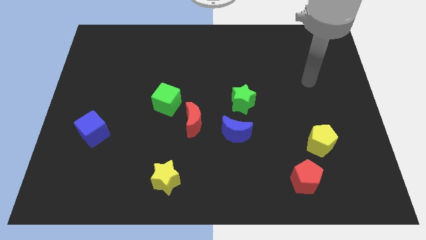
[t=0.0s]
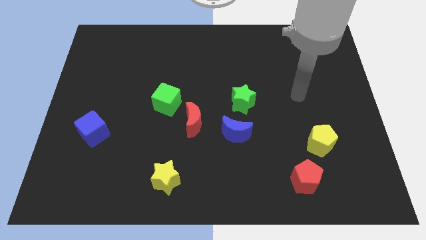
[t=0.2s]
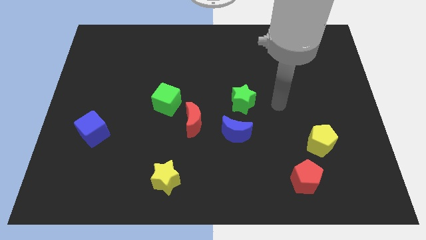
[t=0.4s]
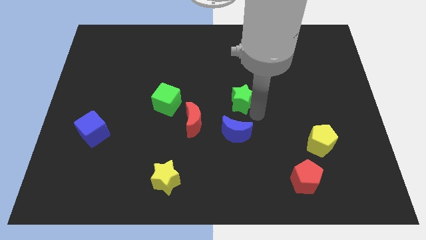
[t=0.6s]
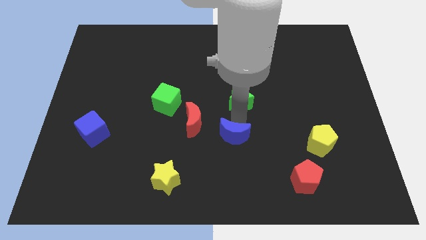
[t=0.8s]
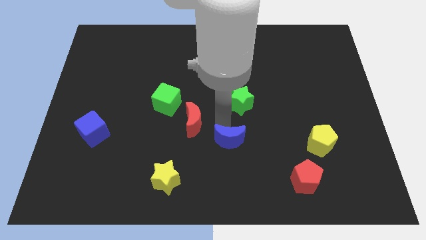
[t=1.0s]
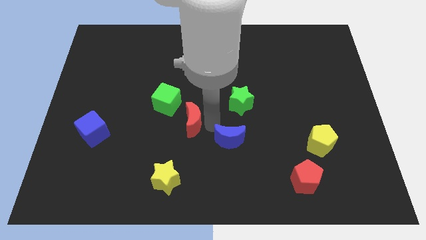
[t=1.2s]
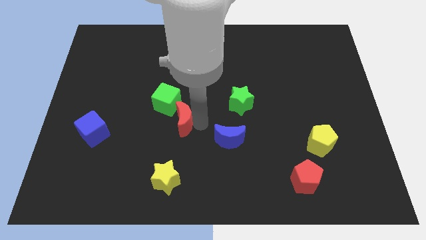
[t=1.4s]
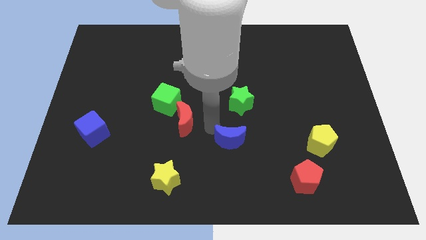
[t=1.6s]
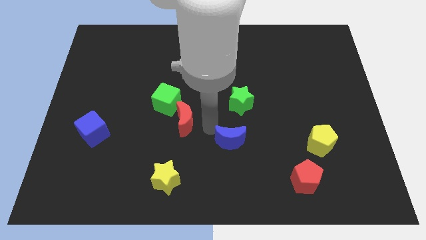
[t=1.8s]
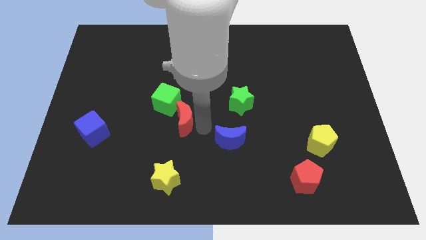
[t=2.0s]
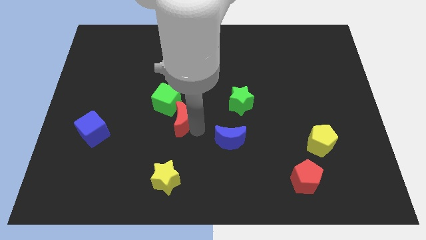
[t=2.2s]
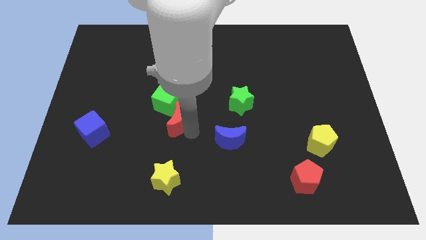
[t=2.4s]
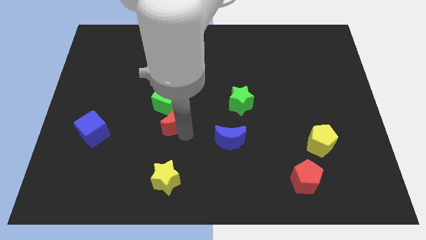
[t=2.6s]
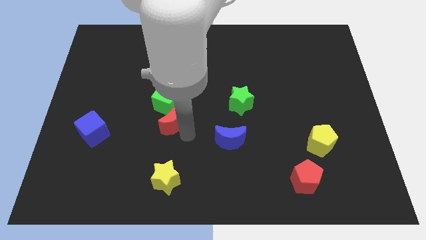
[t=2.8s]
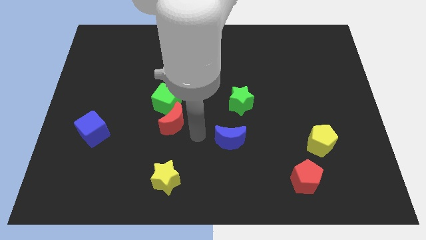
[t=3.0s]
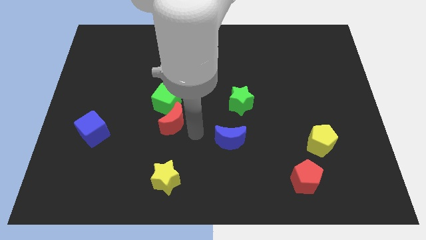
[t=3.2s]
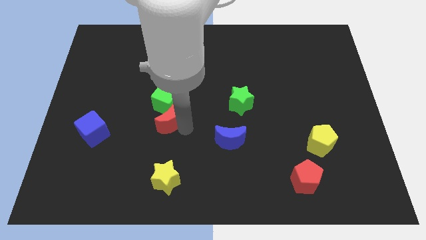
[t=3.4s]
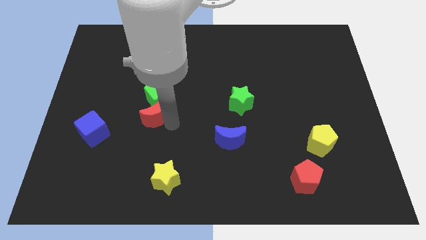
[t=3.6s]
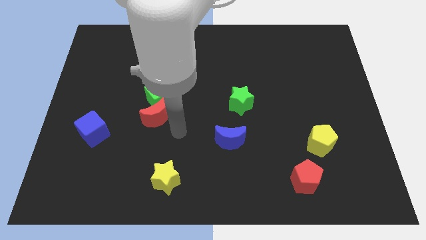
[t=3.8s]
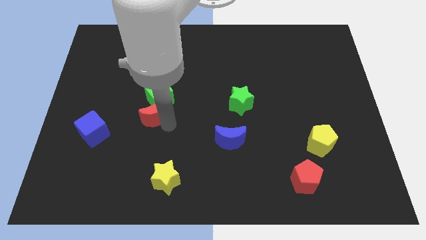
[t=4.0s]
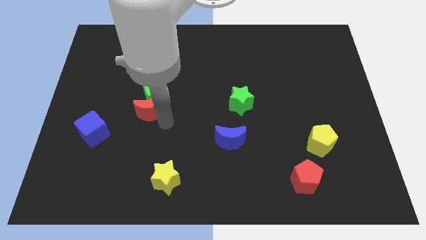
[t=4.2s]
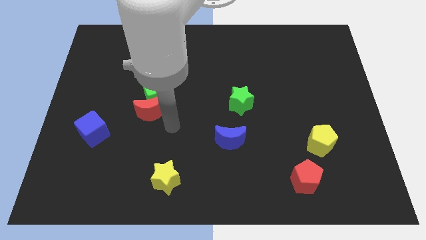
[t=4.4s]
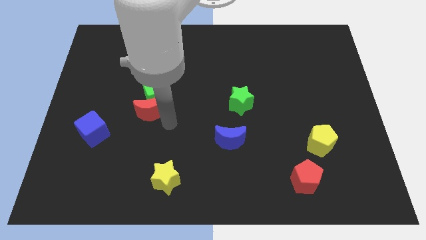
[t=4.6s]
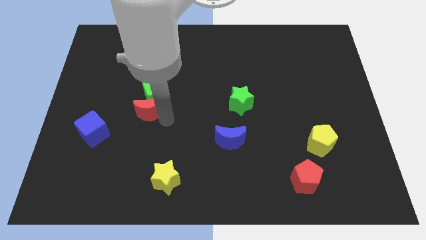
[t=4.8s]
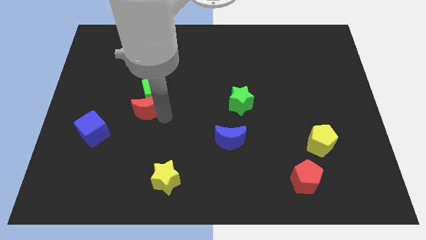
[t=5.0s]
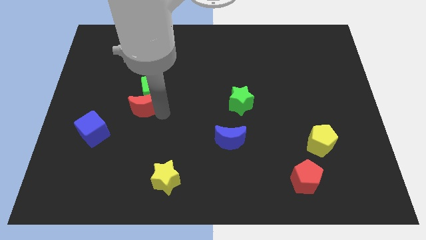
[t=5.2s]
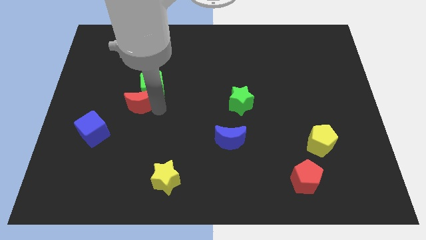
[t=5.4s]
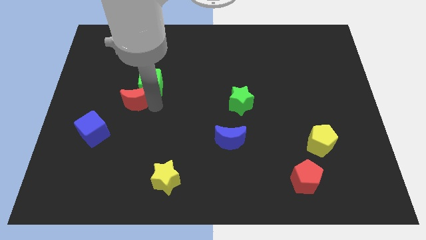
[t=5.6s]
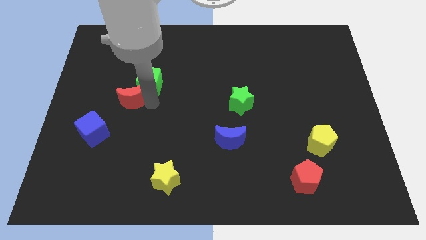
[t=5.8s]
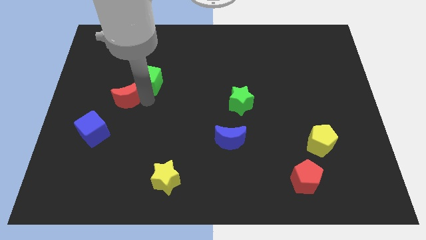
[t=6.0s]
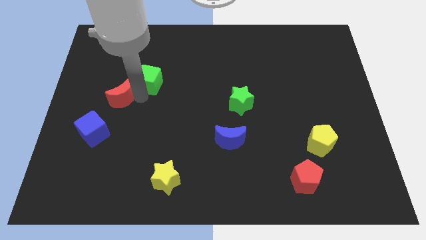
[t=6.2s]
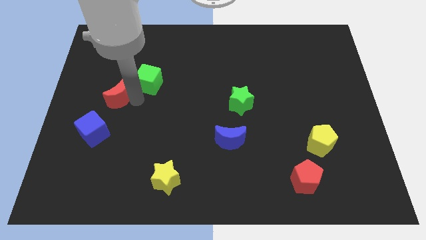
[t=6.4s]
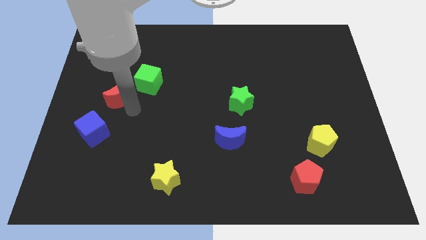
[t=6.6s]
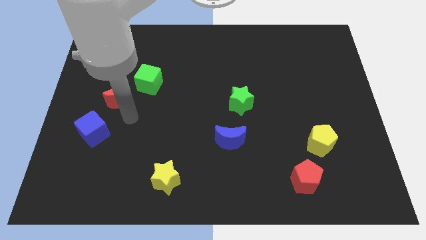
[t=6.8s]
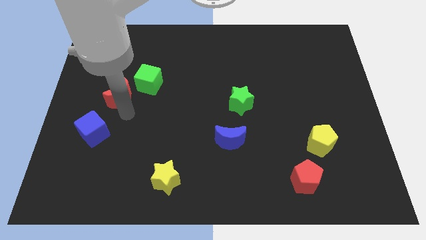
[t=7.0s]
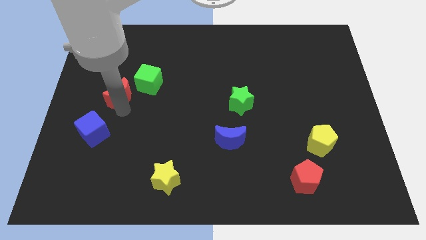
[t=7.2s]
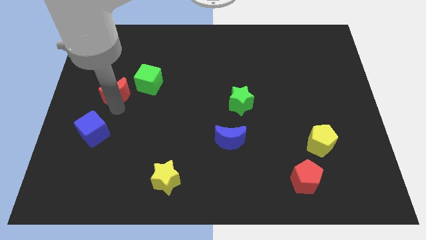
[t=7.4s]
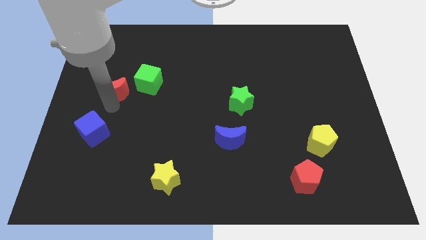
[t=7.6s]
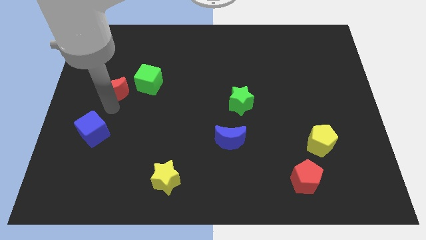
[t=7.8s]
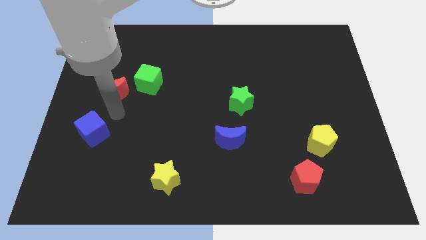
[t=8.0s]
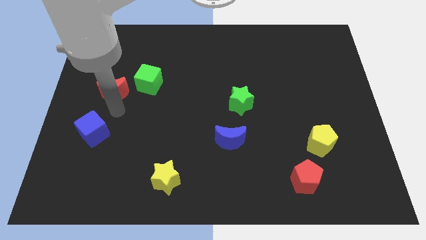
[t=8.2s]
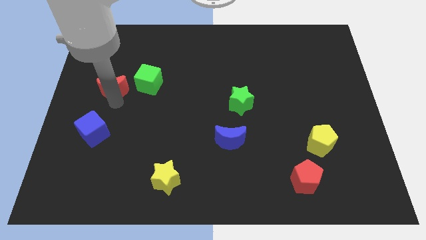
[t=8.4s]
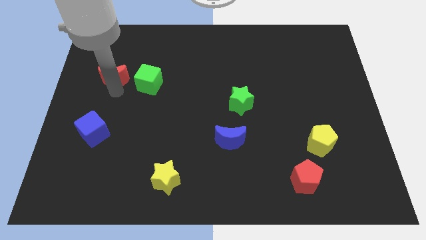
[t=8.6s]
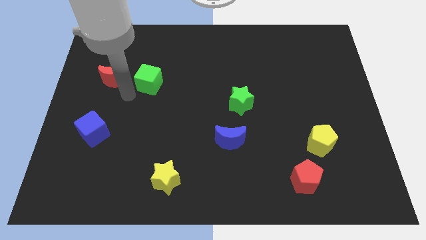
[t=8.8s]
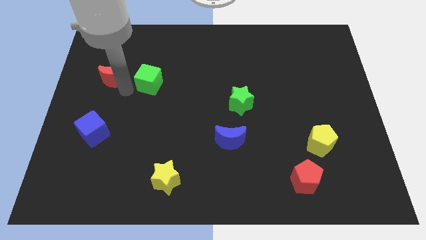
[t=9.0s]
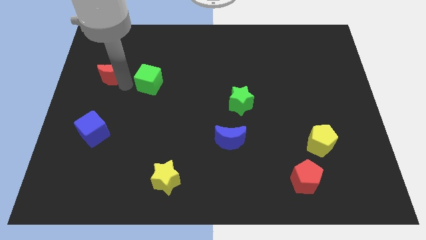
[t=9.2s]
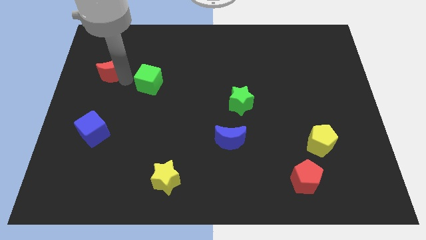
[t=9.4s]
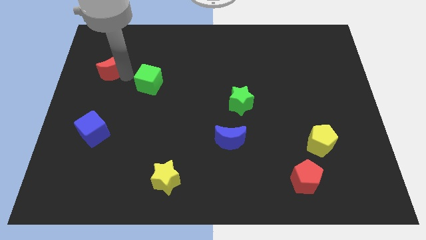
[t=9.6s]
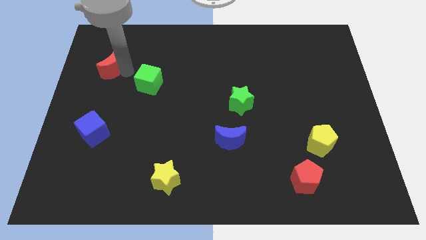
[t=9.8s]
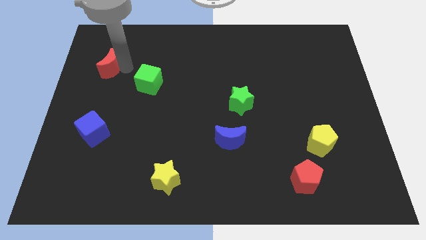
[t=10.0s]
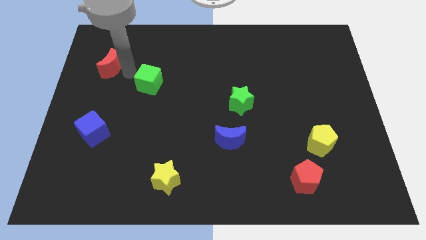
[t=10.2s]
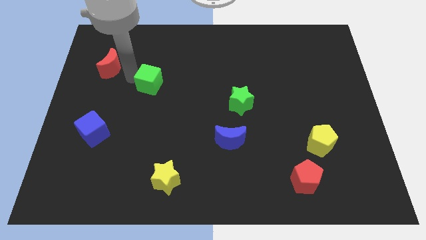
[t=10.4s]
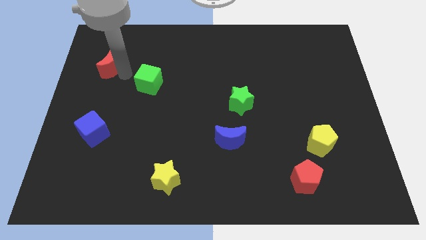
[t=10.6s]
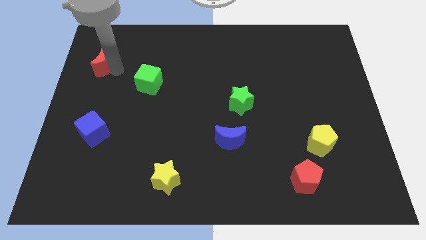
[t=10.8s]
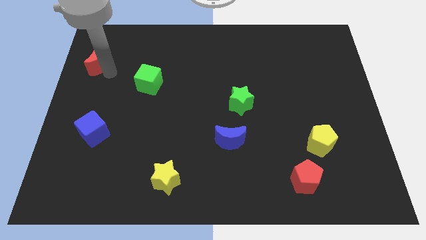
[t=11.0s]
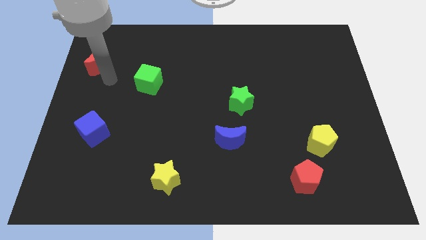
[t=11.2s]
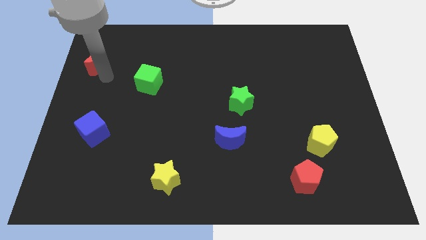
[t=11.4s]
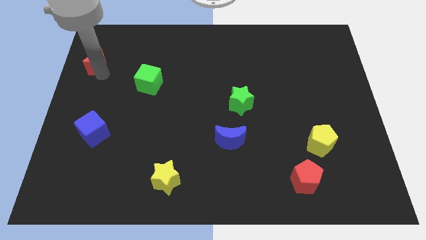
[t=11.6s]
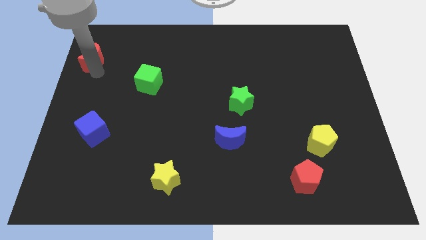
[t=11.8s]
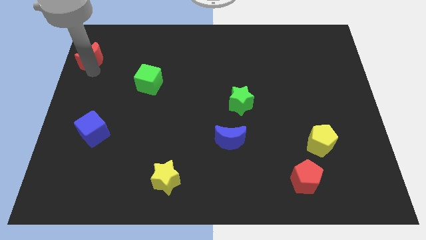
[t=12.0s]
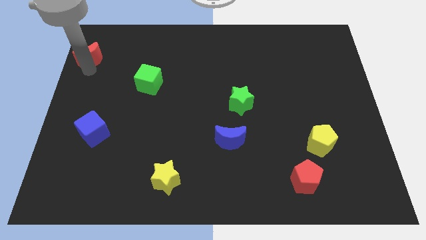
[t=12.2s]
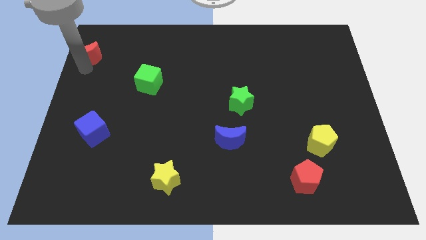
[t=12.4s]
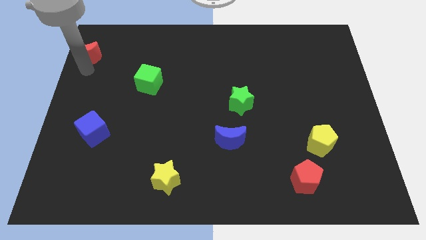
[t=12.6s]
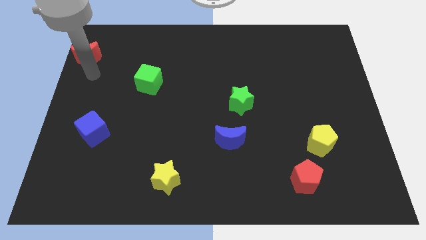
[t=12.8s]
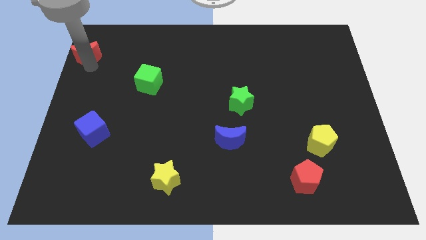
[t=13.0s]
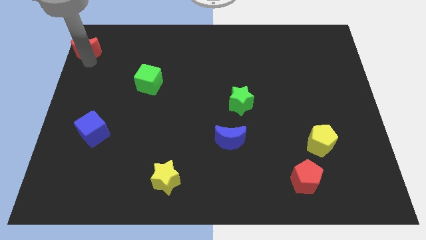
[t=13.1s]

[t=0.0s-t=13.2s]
push the red moon to the top left corner

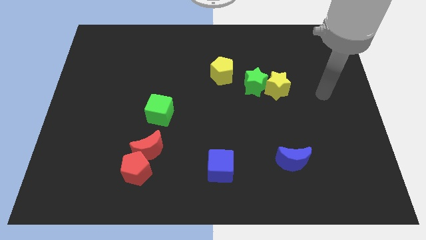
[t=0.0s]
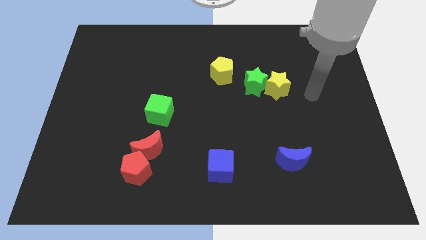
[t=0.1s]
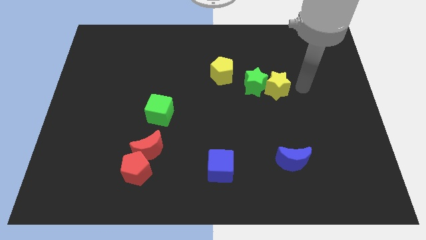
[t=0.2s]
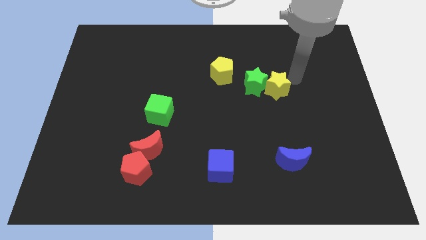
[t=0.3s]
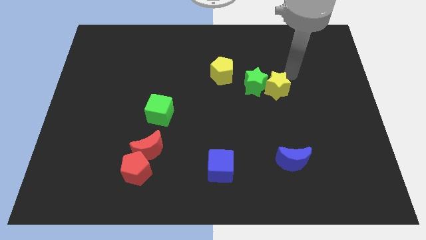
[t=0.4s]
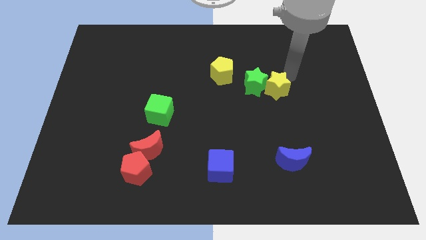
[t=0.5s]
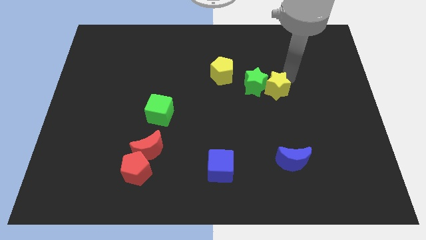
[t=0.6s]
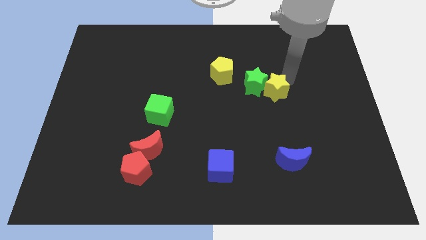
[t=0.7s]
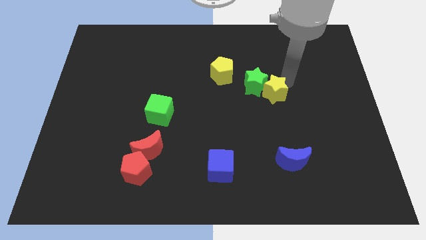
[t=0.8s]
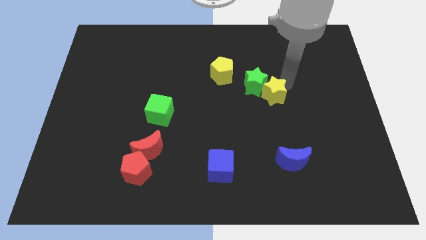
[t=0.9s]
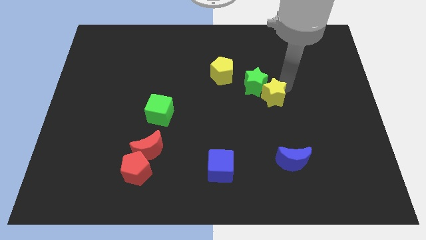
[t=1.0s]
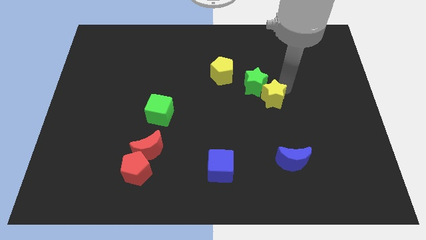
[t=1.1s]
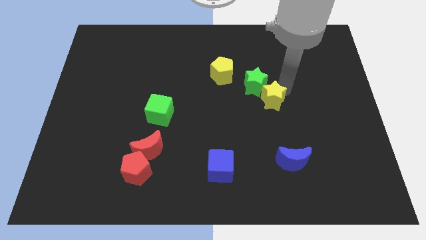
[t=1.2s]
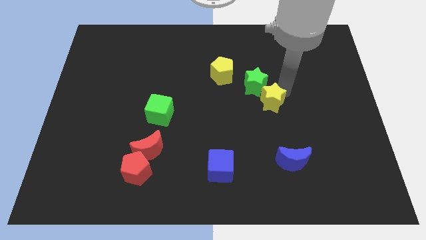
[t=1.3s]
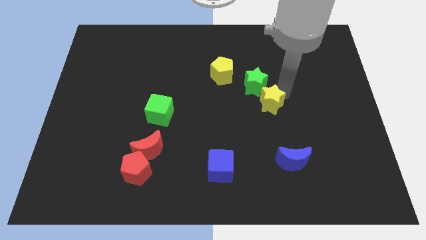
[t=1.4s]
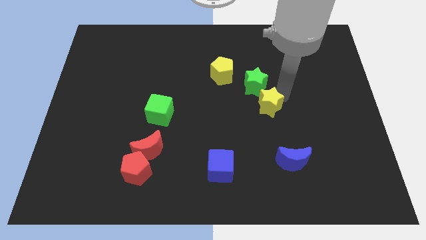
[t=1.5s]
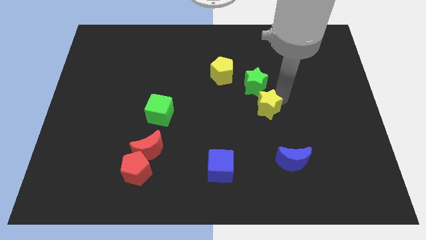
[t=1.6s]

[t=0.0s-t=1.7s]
move the yellow star to the center of the board
